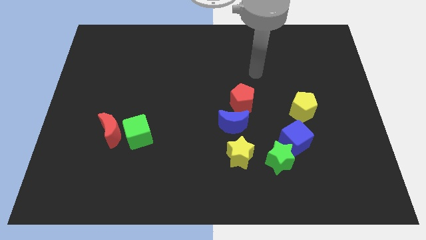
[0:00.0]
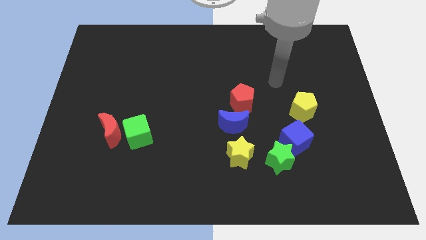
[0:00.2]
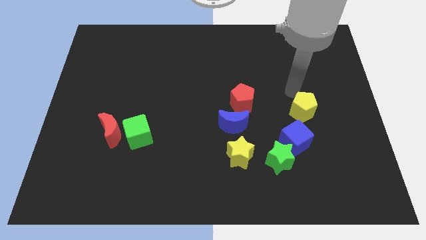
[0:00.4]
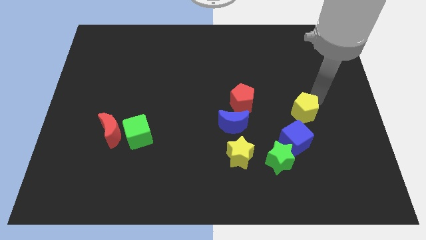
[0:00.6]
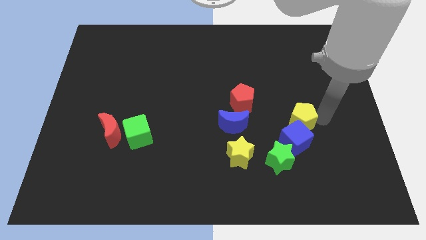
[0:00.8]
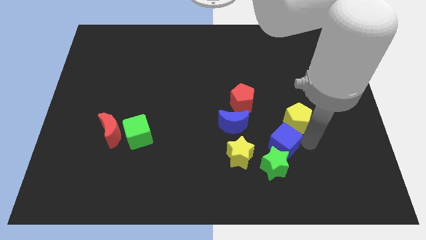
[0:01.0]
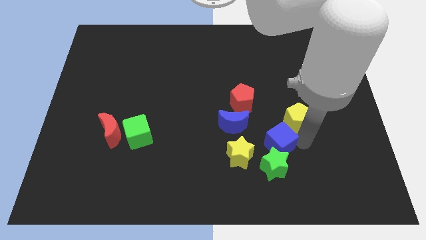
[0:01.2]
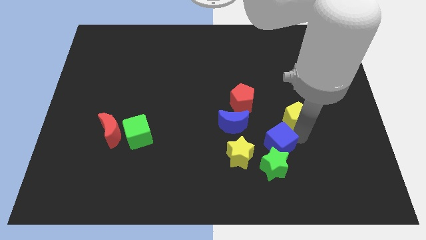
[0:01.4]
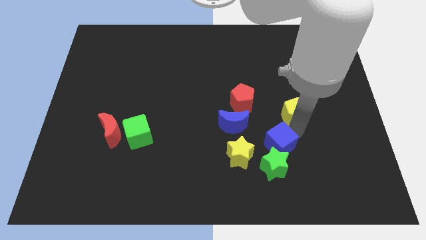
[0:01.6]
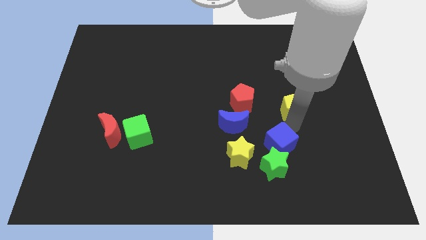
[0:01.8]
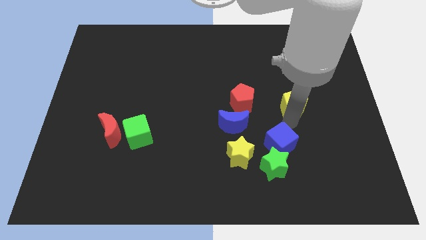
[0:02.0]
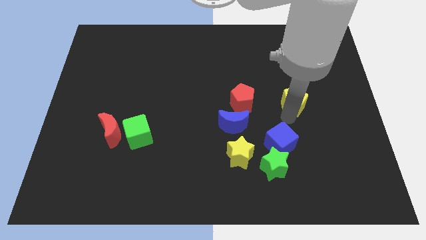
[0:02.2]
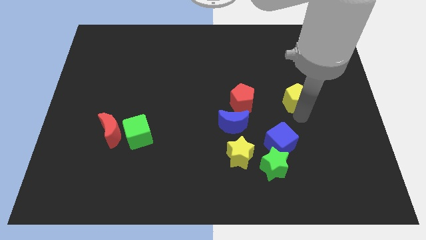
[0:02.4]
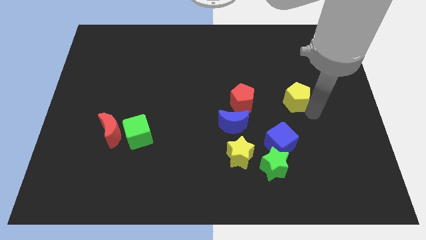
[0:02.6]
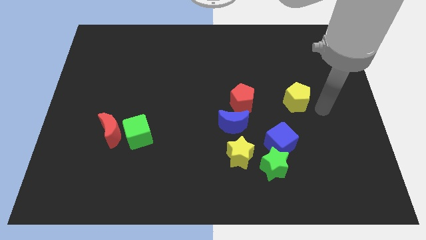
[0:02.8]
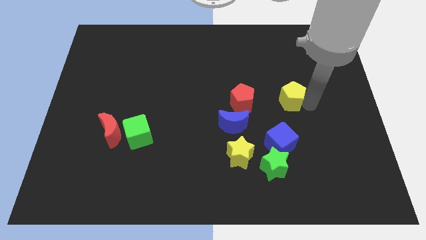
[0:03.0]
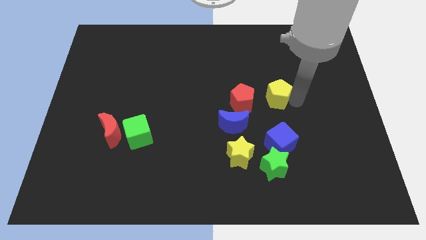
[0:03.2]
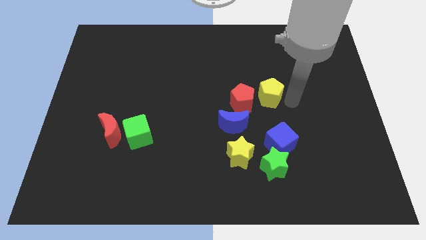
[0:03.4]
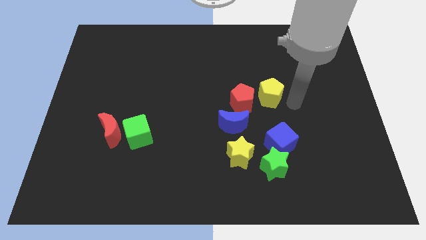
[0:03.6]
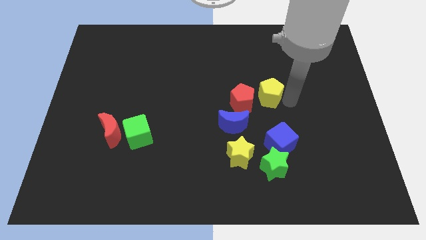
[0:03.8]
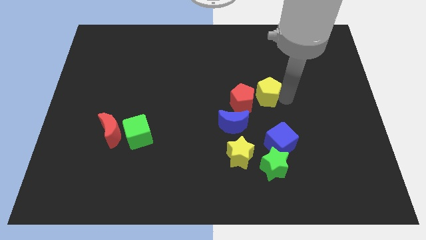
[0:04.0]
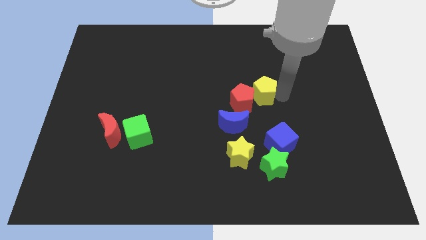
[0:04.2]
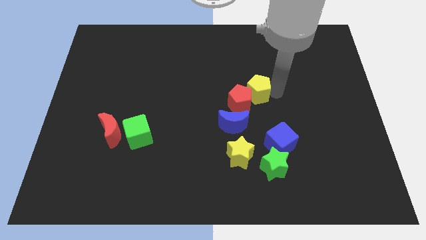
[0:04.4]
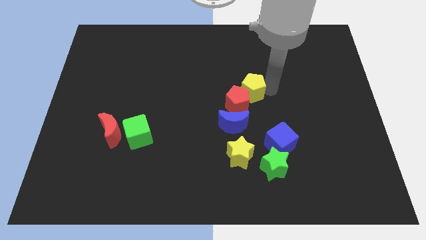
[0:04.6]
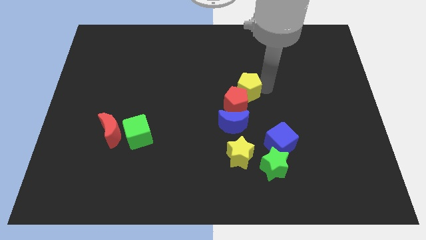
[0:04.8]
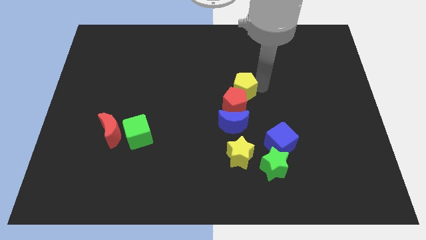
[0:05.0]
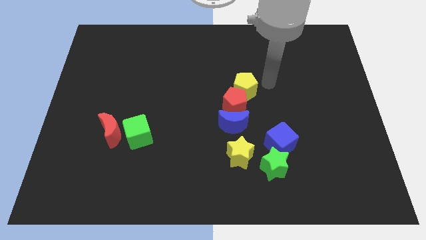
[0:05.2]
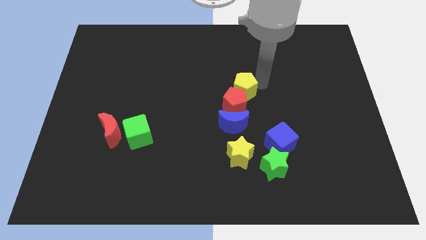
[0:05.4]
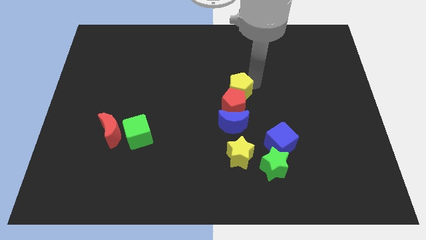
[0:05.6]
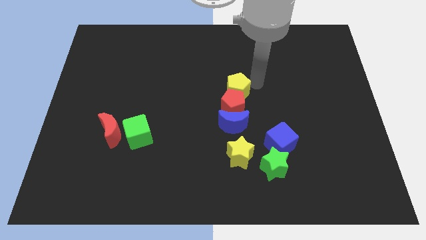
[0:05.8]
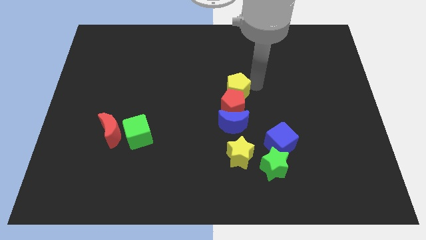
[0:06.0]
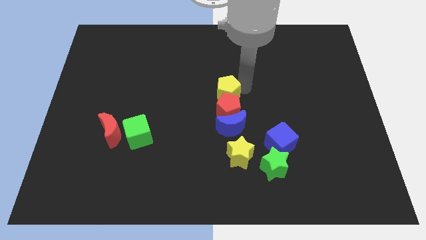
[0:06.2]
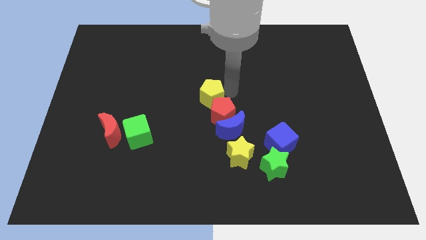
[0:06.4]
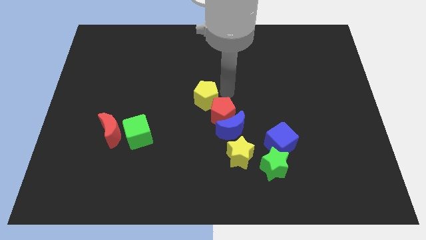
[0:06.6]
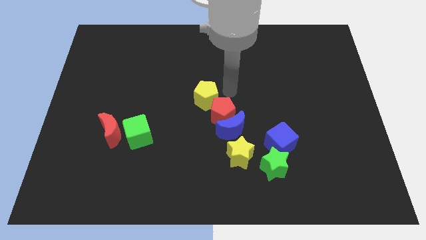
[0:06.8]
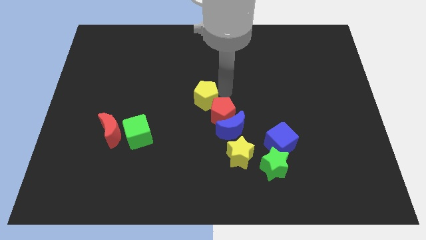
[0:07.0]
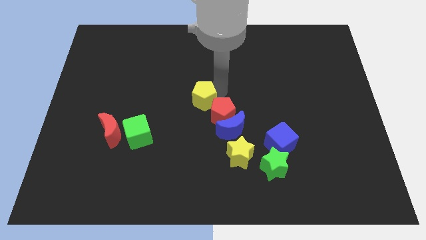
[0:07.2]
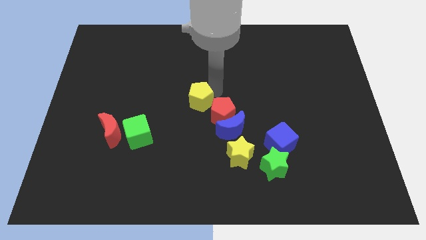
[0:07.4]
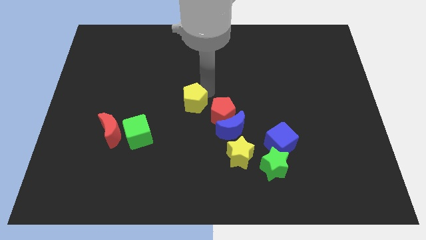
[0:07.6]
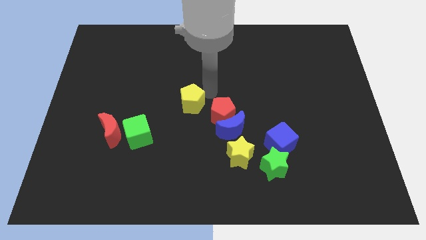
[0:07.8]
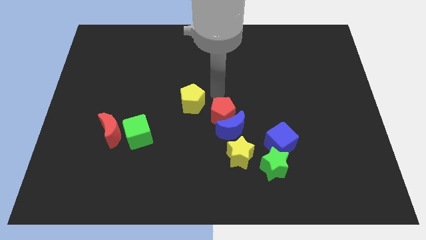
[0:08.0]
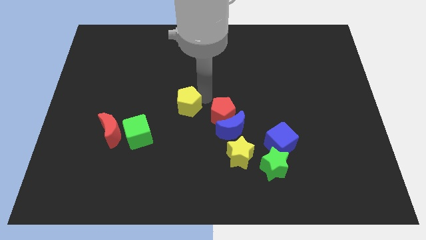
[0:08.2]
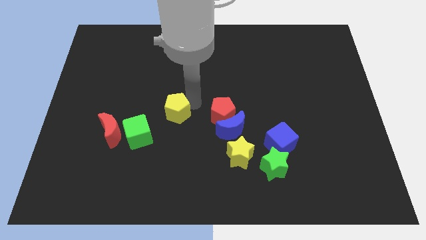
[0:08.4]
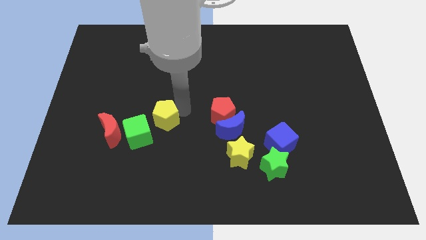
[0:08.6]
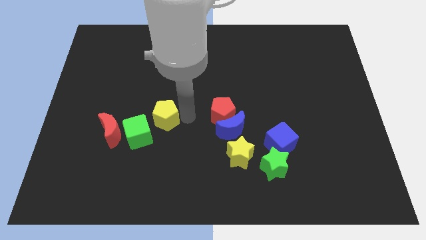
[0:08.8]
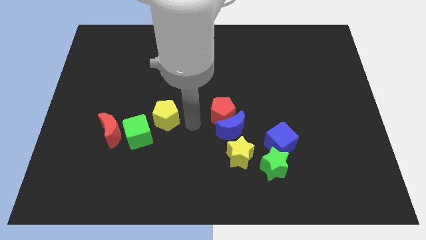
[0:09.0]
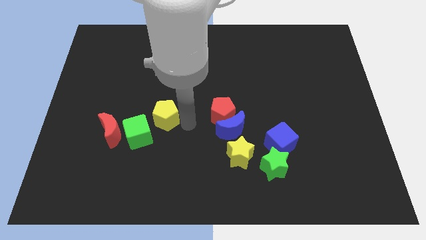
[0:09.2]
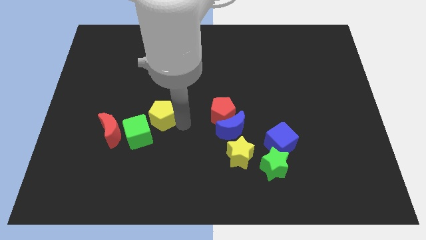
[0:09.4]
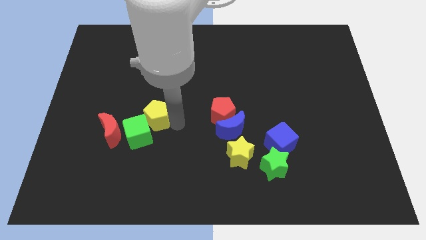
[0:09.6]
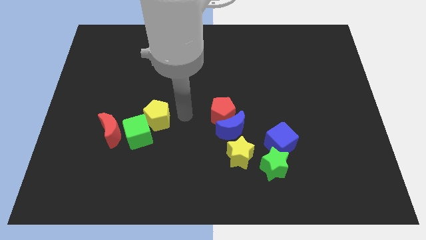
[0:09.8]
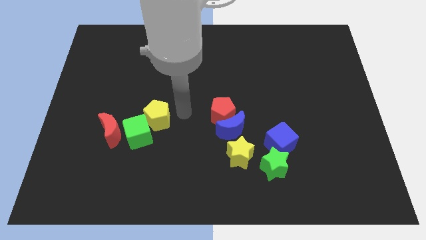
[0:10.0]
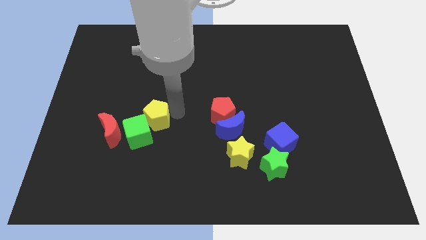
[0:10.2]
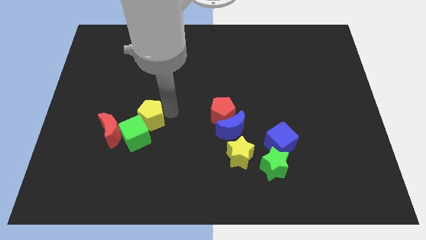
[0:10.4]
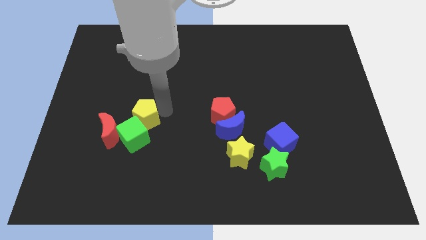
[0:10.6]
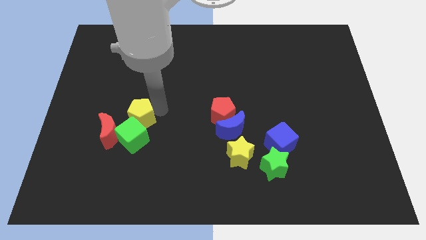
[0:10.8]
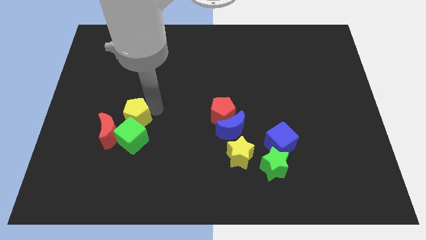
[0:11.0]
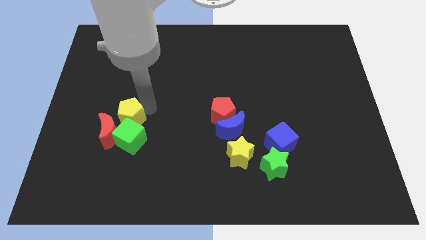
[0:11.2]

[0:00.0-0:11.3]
move the yellow pentagon to the red moon

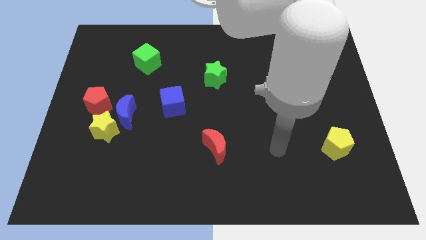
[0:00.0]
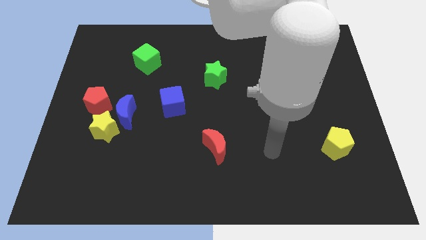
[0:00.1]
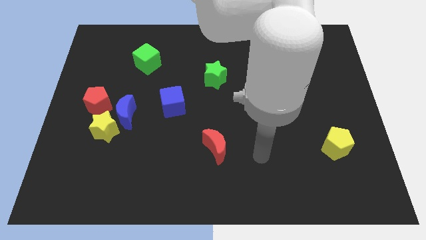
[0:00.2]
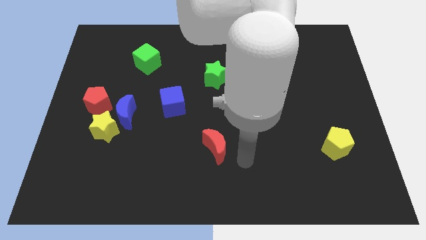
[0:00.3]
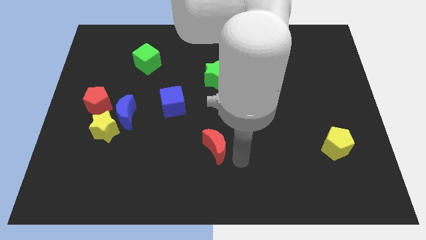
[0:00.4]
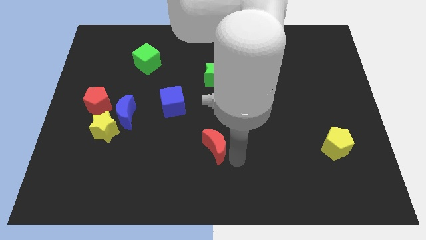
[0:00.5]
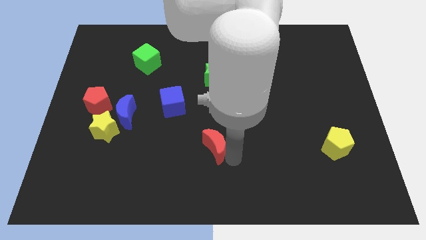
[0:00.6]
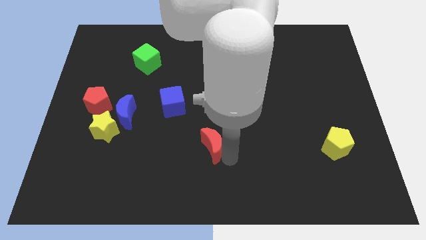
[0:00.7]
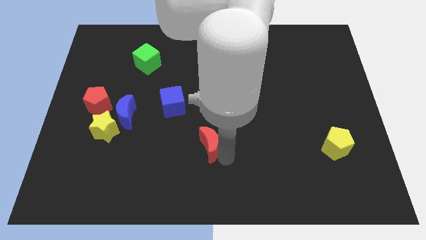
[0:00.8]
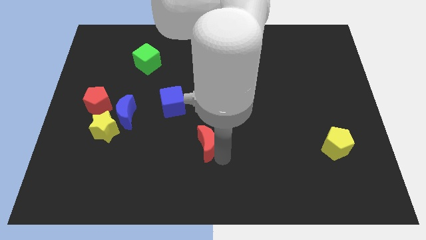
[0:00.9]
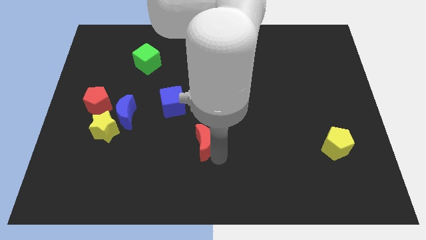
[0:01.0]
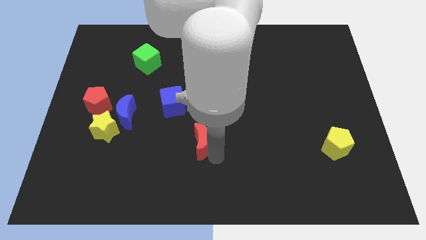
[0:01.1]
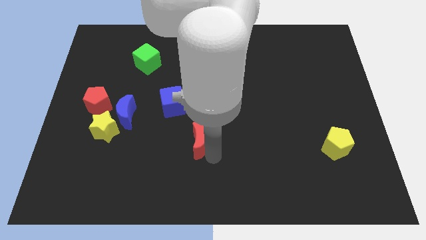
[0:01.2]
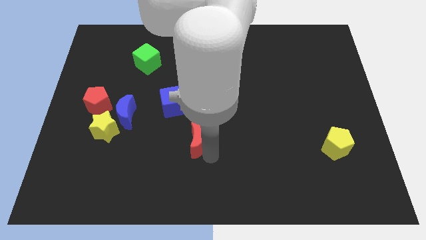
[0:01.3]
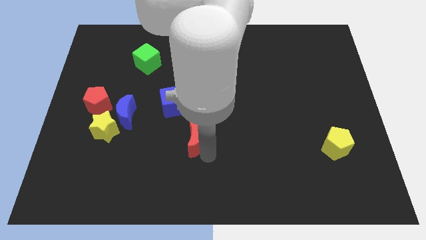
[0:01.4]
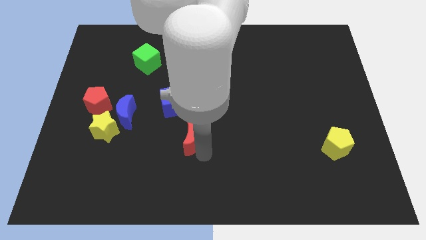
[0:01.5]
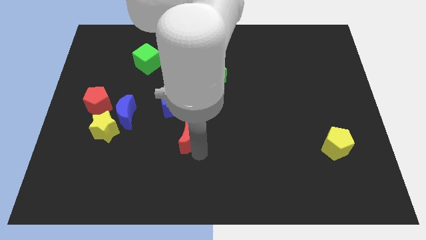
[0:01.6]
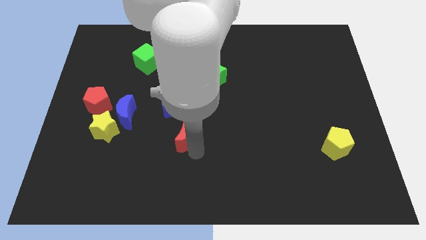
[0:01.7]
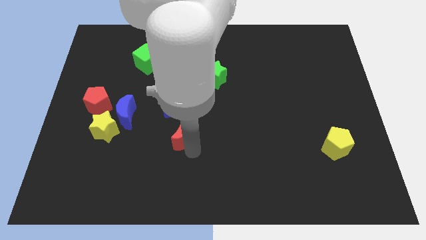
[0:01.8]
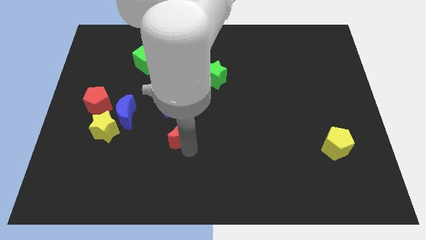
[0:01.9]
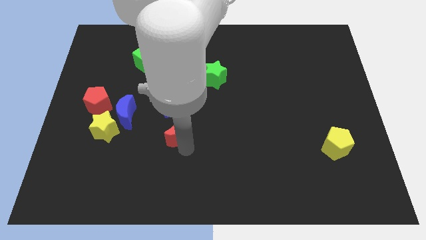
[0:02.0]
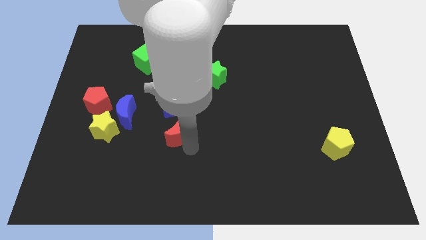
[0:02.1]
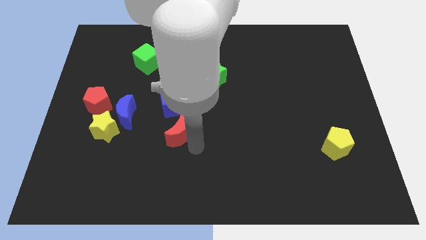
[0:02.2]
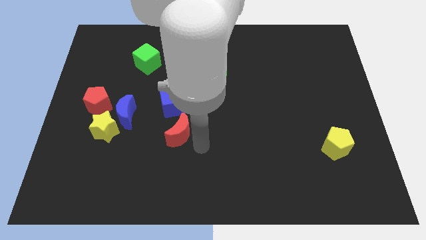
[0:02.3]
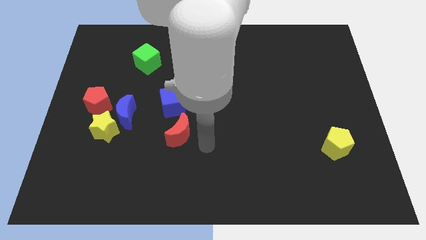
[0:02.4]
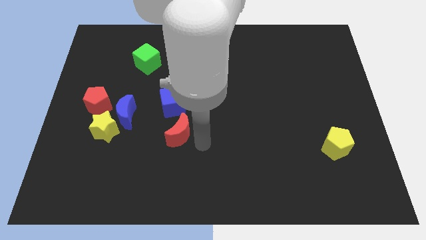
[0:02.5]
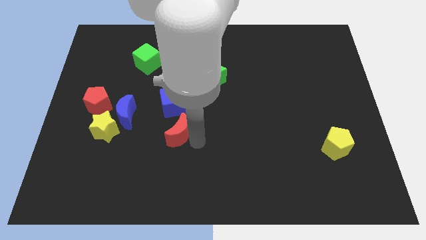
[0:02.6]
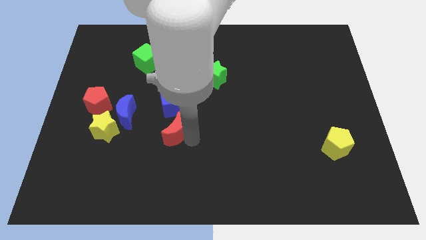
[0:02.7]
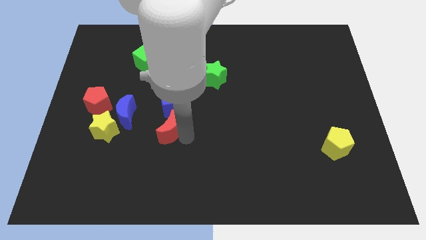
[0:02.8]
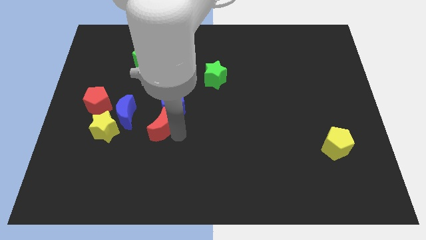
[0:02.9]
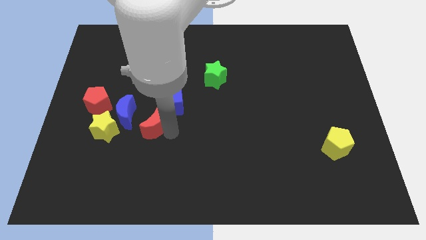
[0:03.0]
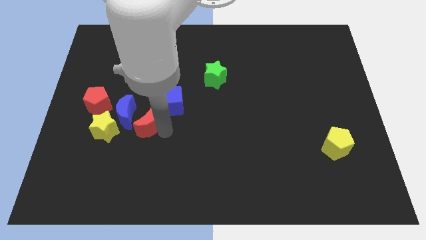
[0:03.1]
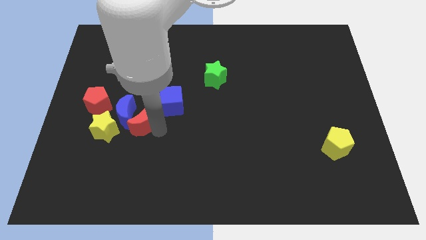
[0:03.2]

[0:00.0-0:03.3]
slide the red moon to the blue moon
